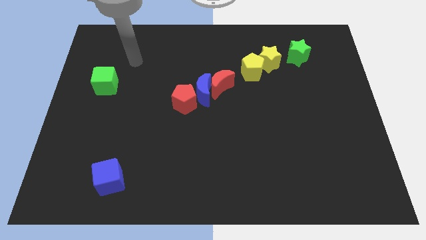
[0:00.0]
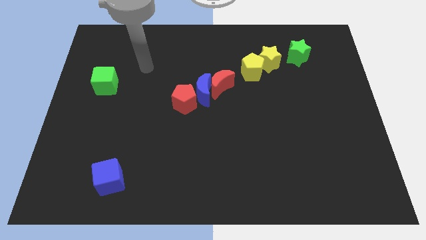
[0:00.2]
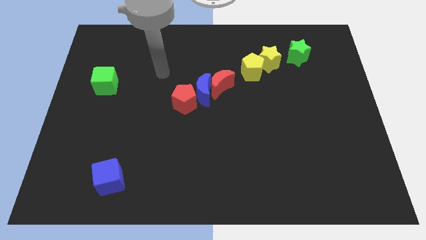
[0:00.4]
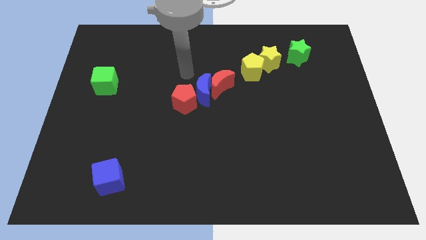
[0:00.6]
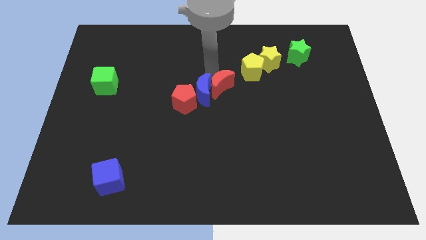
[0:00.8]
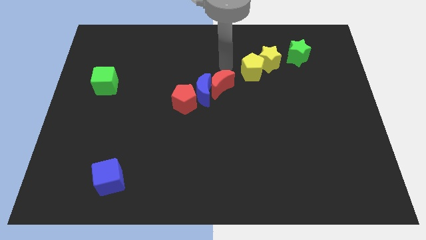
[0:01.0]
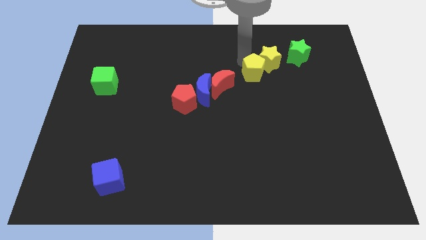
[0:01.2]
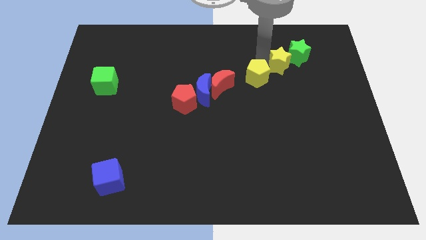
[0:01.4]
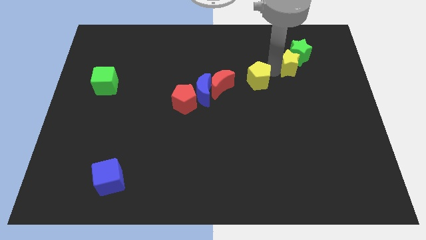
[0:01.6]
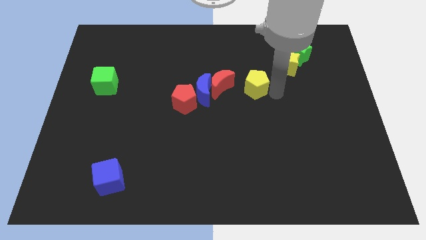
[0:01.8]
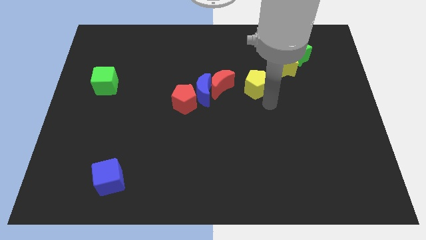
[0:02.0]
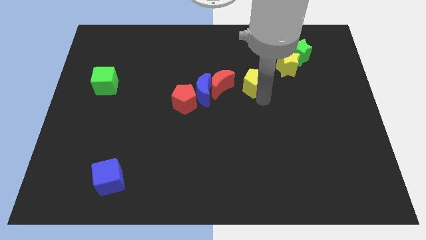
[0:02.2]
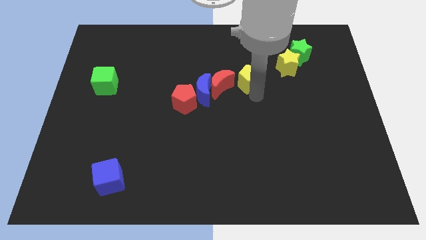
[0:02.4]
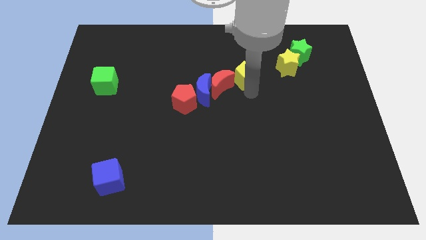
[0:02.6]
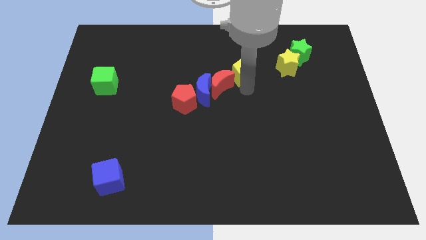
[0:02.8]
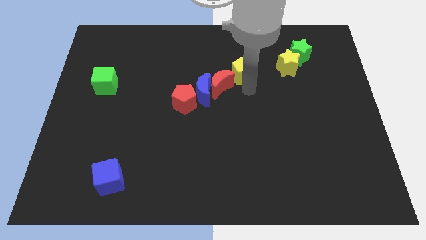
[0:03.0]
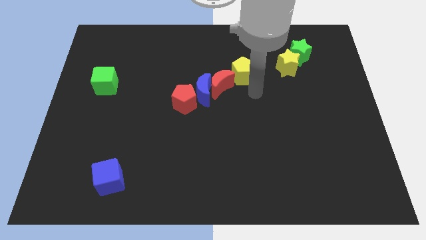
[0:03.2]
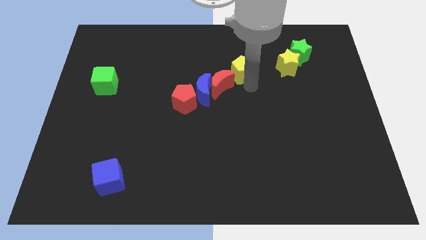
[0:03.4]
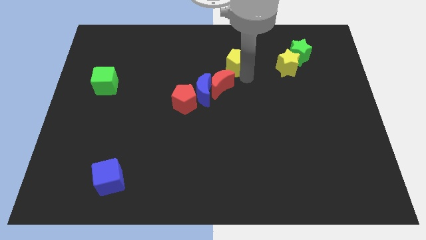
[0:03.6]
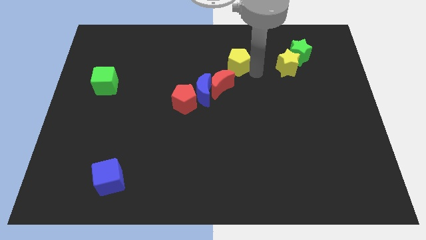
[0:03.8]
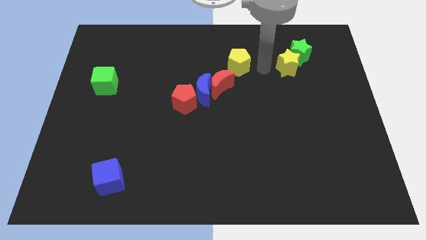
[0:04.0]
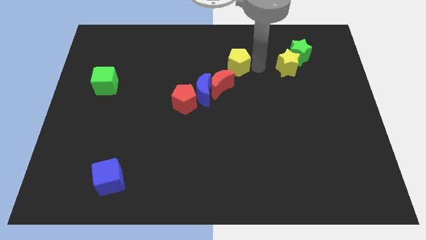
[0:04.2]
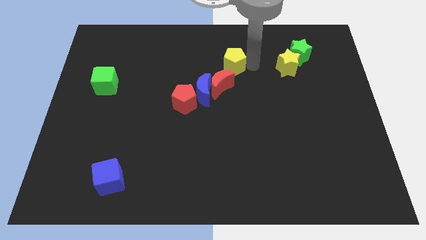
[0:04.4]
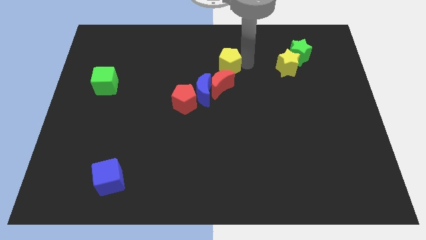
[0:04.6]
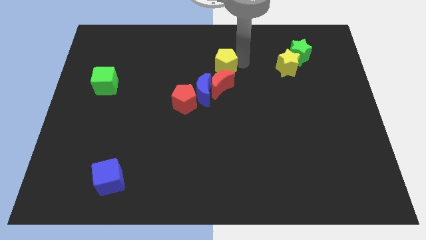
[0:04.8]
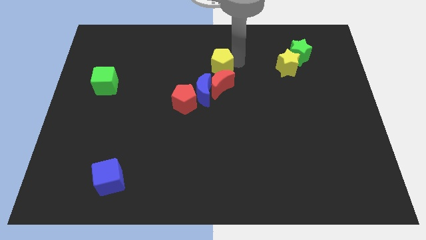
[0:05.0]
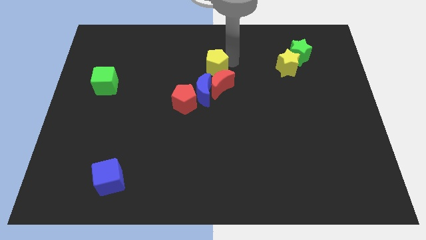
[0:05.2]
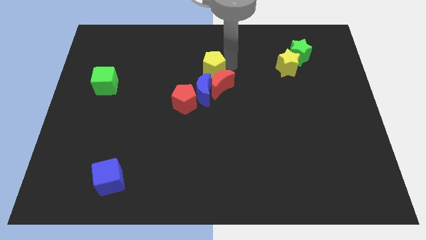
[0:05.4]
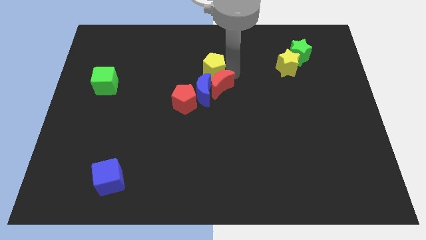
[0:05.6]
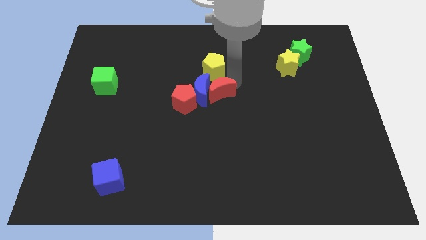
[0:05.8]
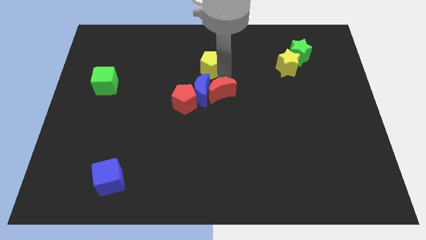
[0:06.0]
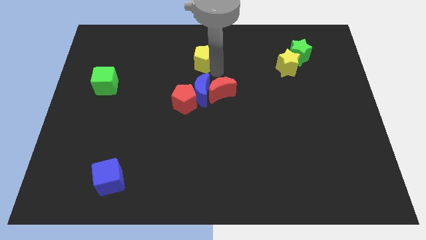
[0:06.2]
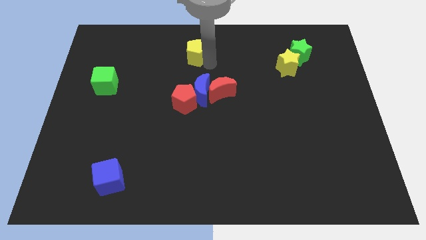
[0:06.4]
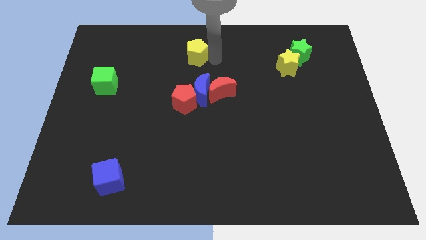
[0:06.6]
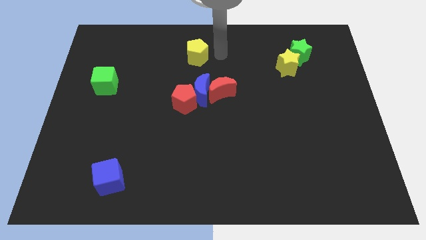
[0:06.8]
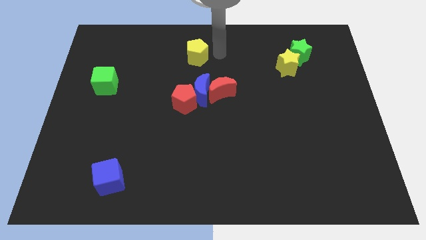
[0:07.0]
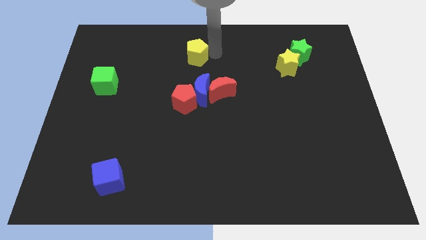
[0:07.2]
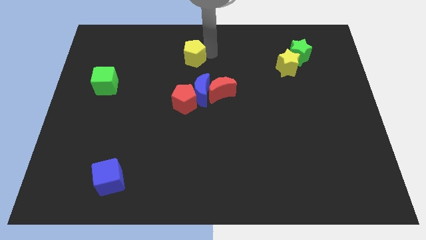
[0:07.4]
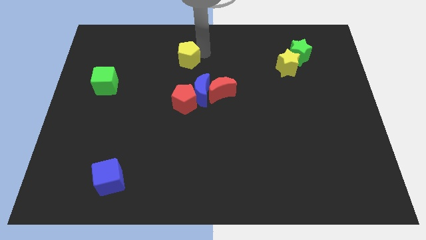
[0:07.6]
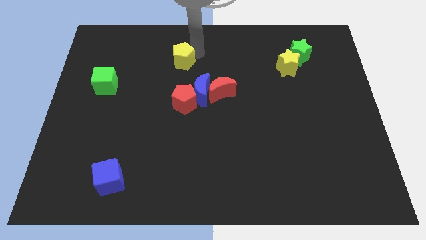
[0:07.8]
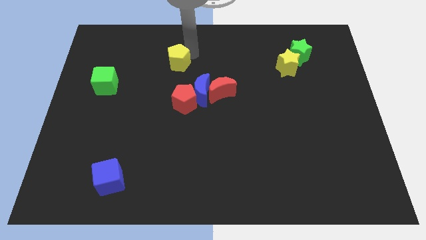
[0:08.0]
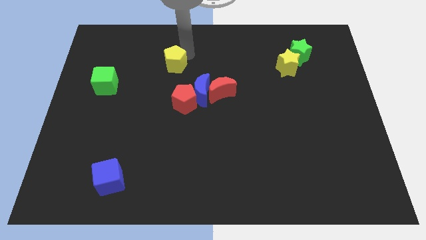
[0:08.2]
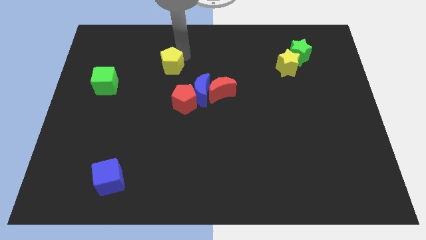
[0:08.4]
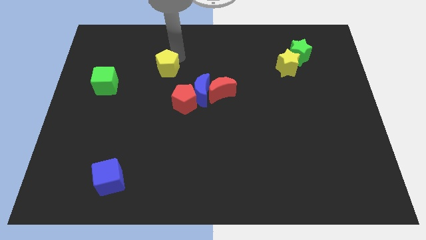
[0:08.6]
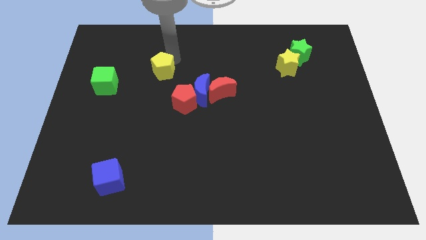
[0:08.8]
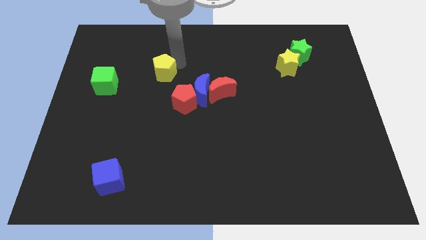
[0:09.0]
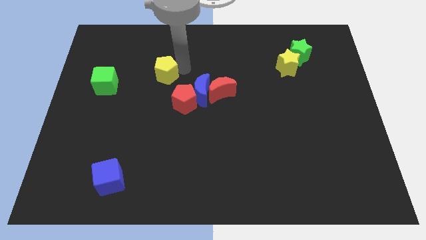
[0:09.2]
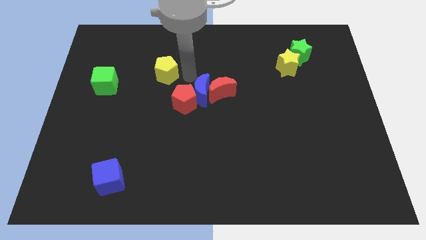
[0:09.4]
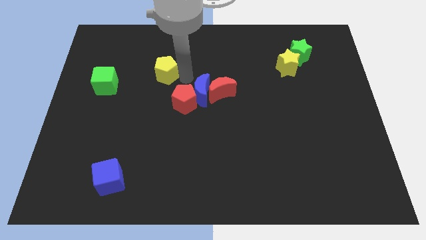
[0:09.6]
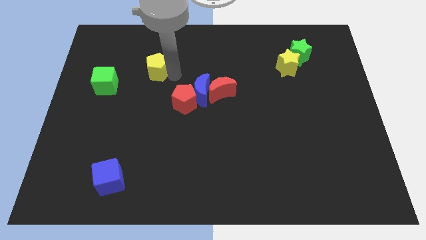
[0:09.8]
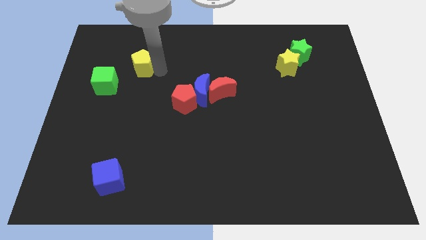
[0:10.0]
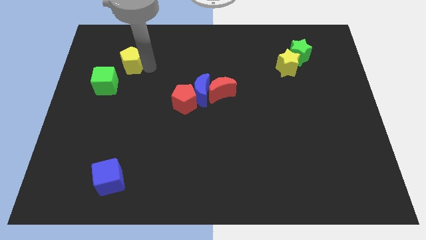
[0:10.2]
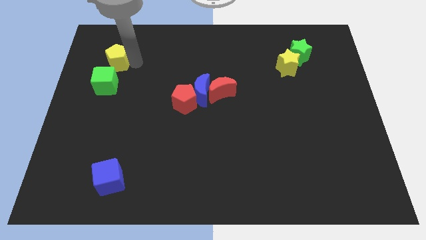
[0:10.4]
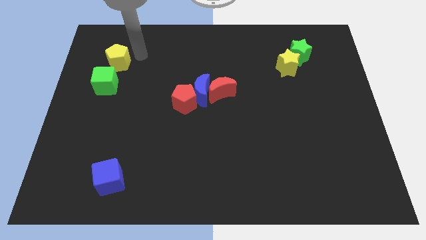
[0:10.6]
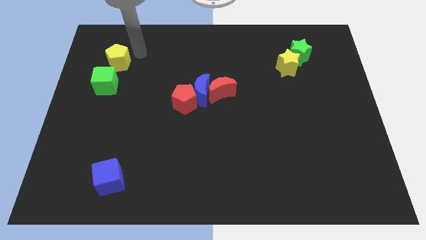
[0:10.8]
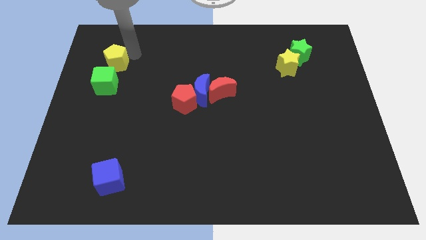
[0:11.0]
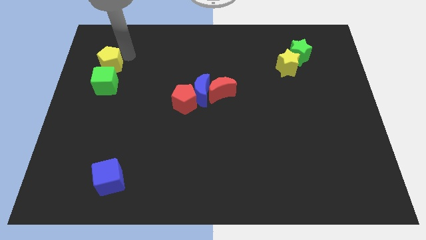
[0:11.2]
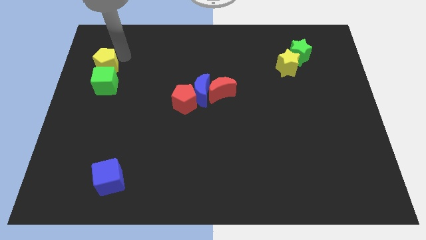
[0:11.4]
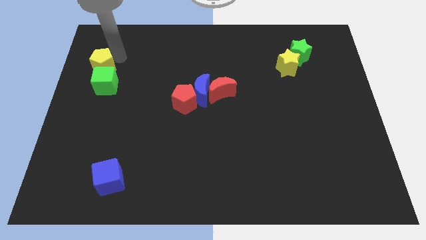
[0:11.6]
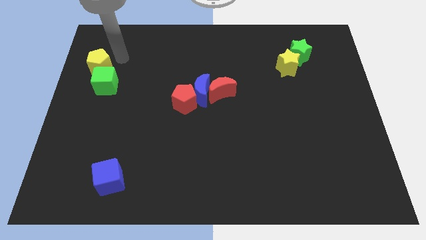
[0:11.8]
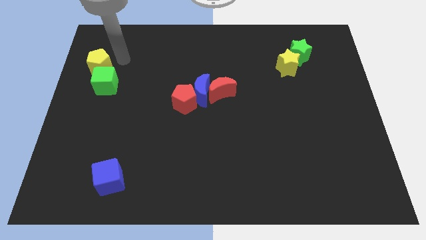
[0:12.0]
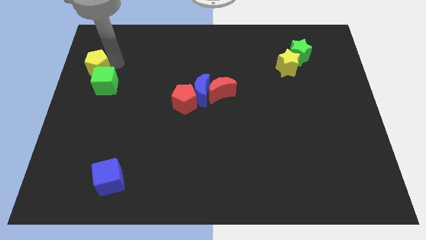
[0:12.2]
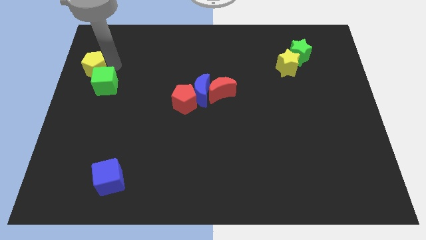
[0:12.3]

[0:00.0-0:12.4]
move the yellow pentagon to the left side

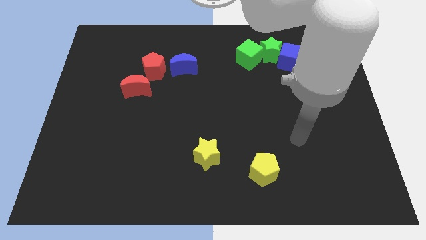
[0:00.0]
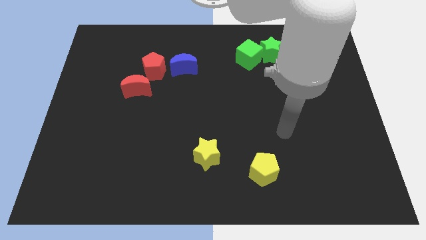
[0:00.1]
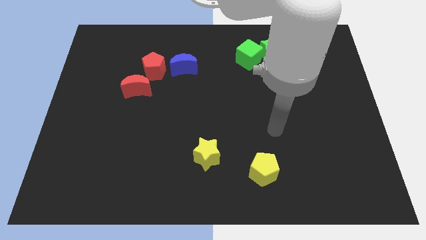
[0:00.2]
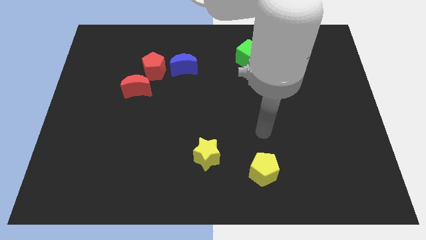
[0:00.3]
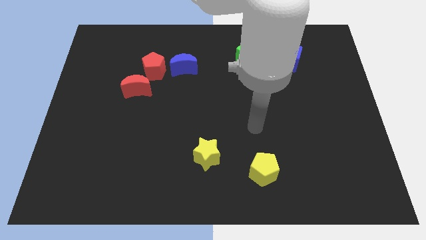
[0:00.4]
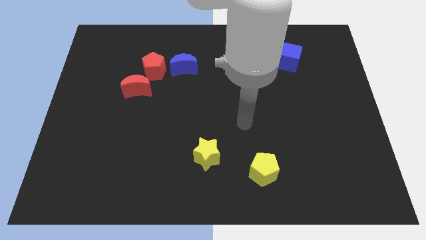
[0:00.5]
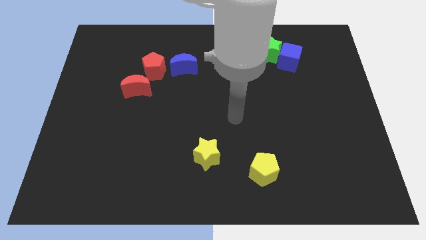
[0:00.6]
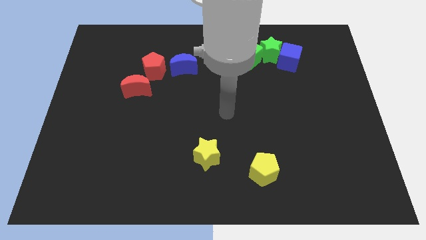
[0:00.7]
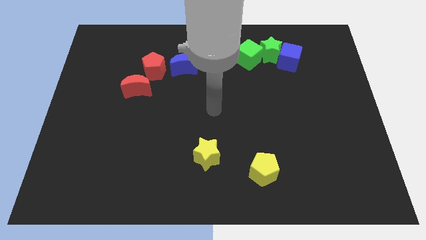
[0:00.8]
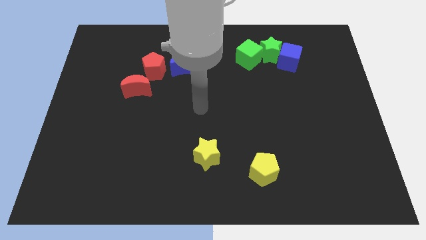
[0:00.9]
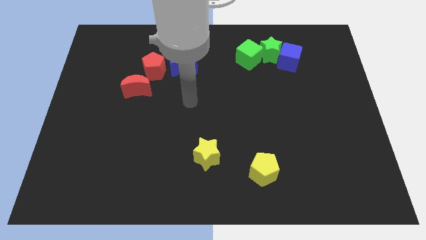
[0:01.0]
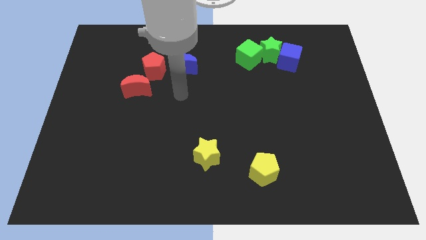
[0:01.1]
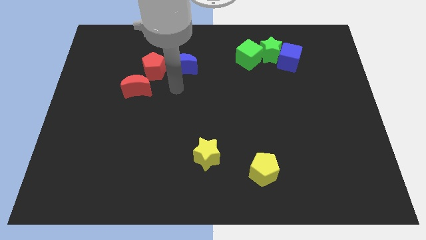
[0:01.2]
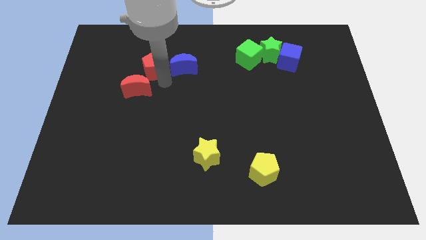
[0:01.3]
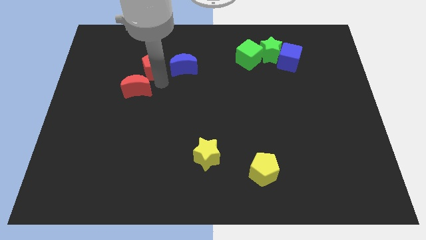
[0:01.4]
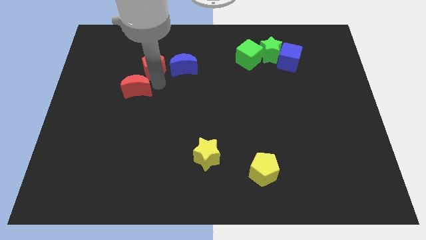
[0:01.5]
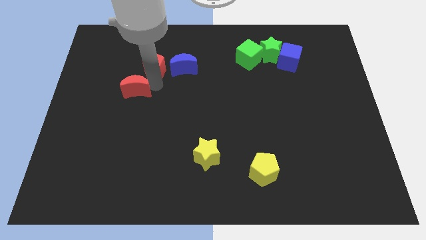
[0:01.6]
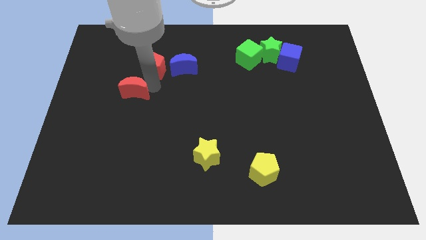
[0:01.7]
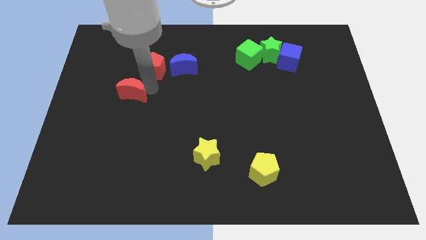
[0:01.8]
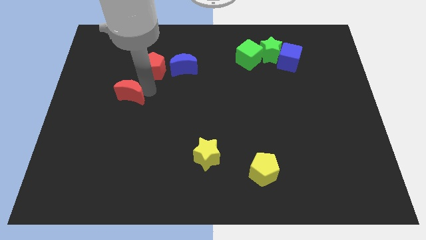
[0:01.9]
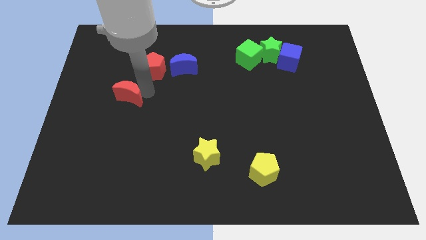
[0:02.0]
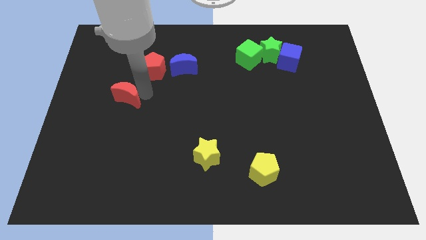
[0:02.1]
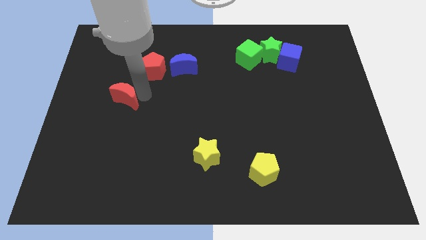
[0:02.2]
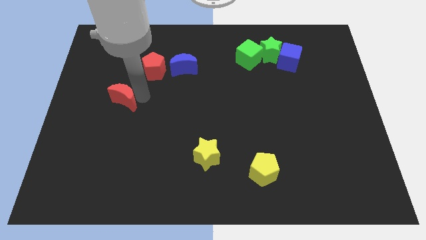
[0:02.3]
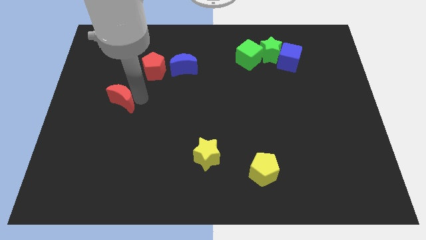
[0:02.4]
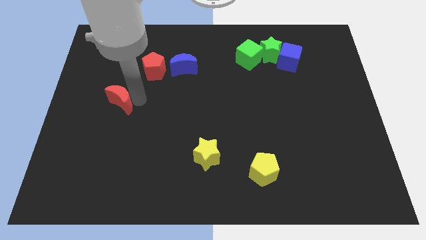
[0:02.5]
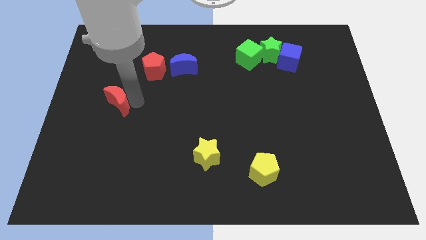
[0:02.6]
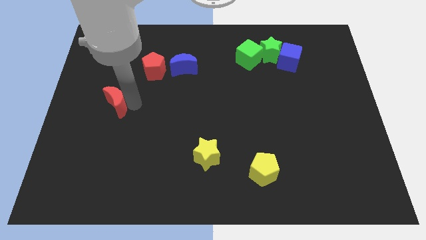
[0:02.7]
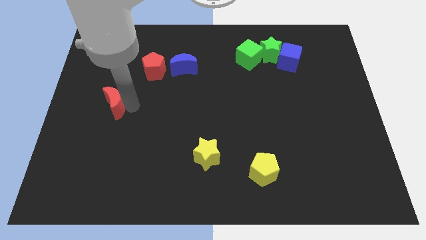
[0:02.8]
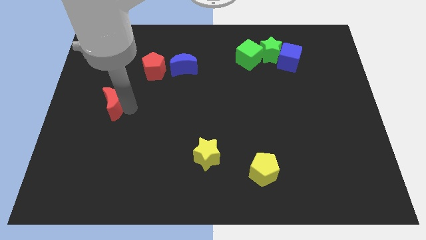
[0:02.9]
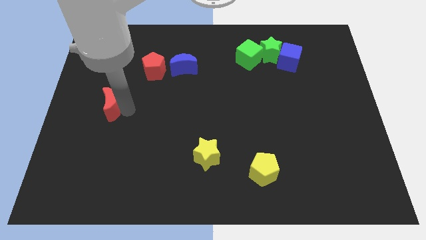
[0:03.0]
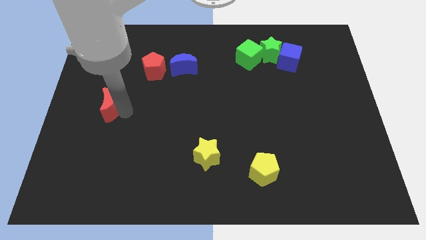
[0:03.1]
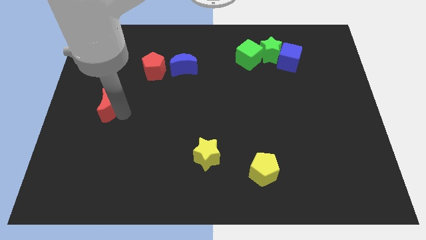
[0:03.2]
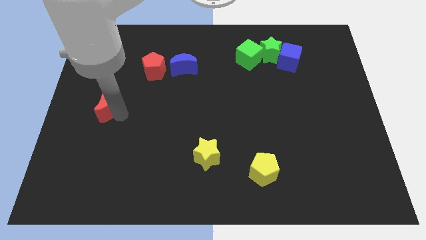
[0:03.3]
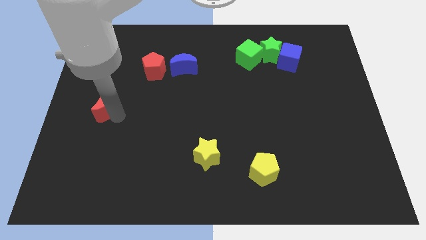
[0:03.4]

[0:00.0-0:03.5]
slide the red moon to the left side
